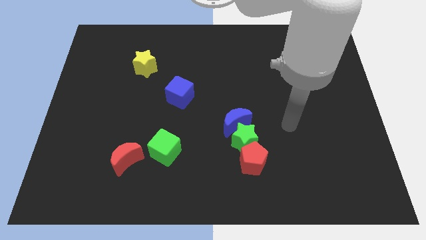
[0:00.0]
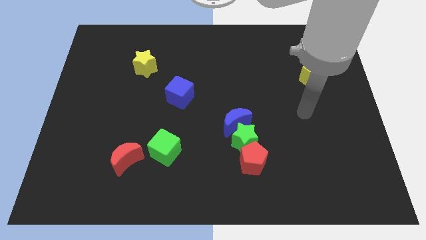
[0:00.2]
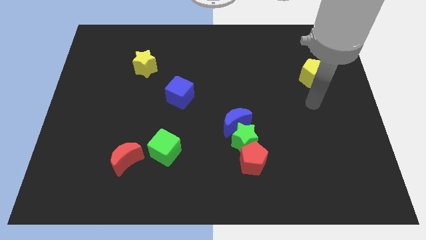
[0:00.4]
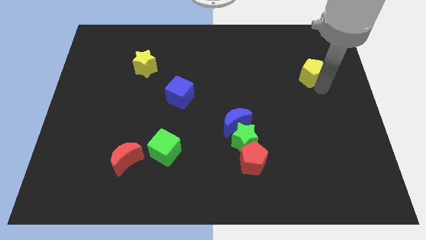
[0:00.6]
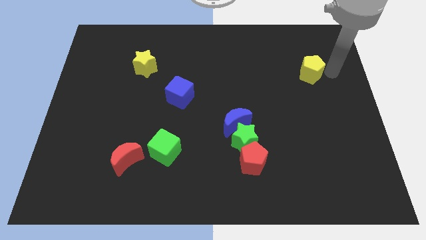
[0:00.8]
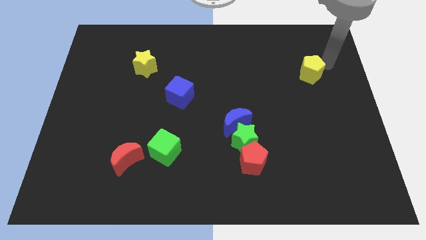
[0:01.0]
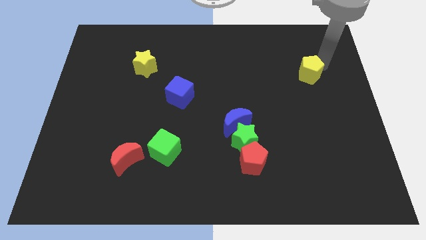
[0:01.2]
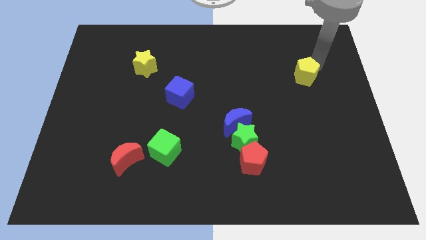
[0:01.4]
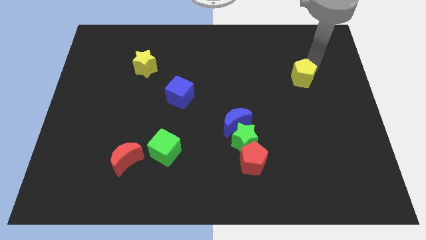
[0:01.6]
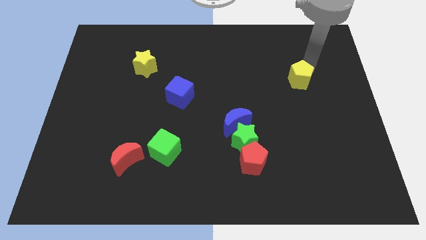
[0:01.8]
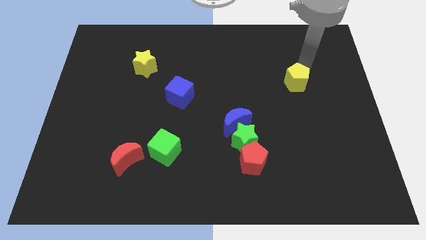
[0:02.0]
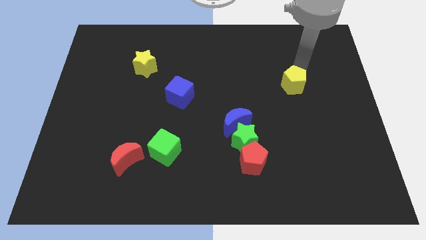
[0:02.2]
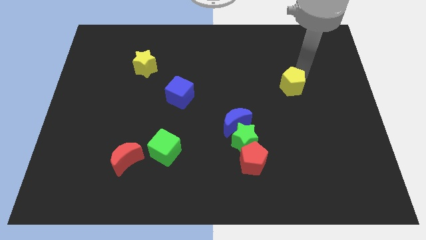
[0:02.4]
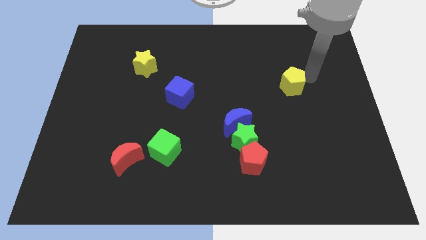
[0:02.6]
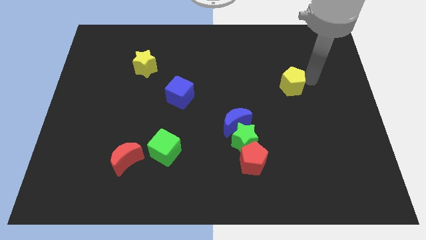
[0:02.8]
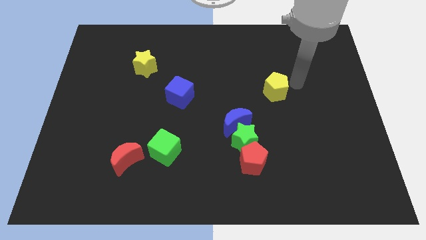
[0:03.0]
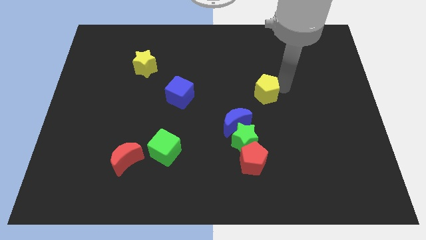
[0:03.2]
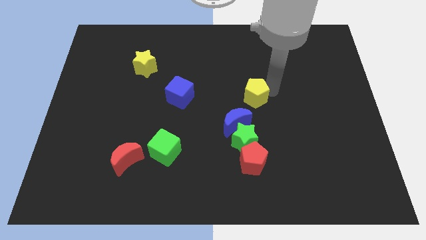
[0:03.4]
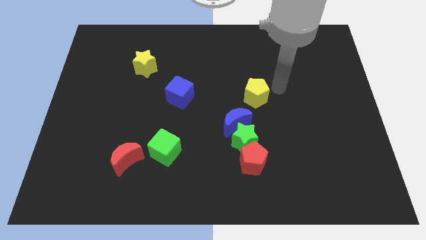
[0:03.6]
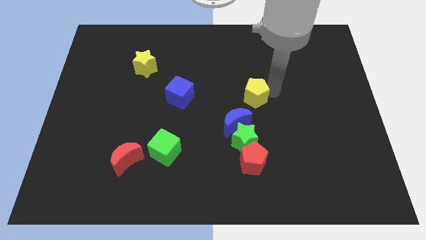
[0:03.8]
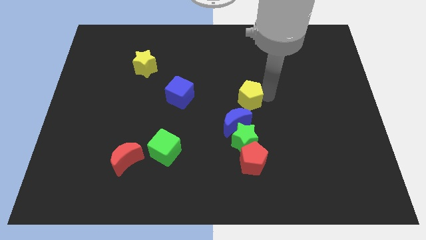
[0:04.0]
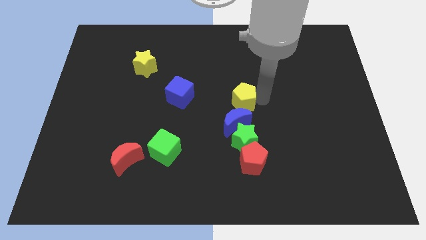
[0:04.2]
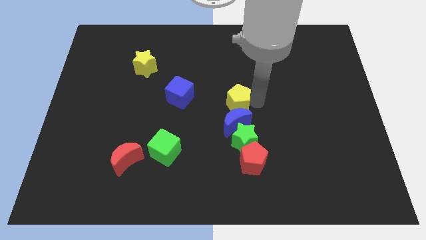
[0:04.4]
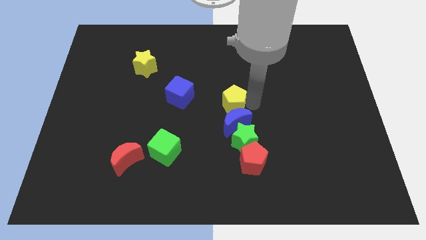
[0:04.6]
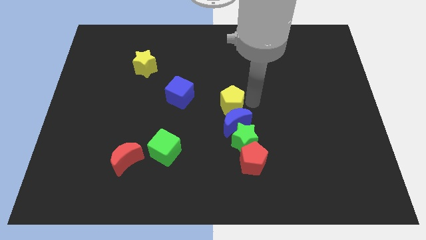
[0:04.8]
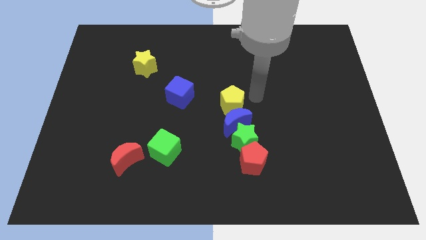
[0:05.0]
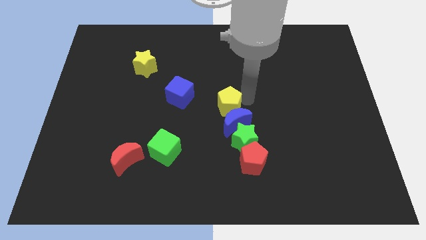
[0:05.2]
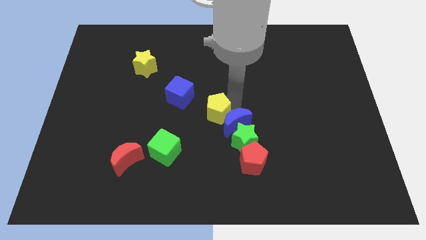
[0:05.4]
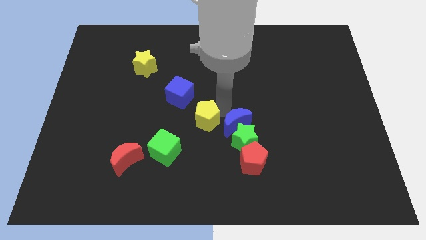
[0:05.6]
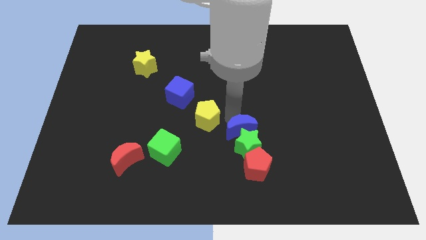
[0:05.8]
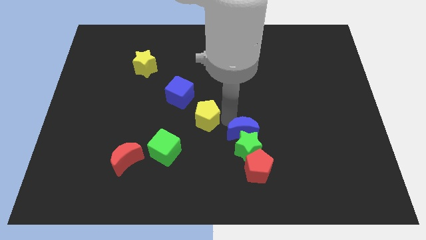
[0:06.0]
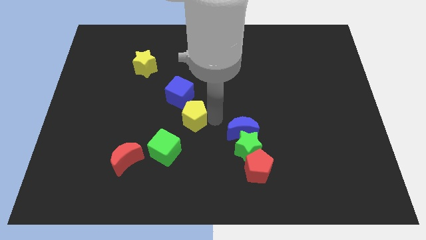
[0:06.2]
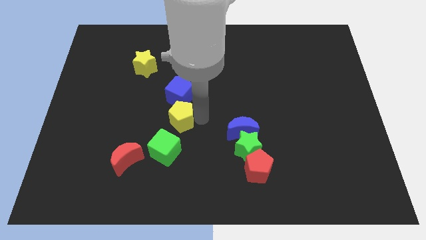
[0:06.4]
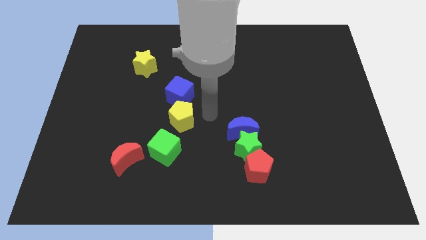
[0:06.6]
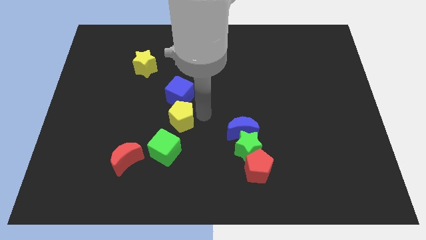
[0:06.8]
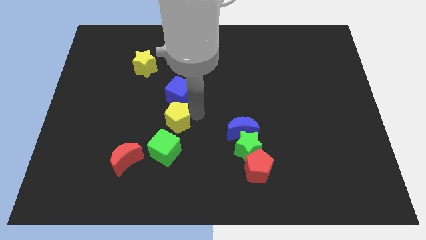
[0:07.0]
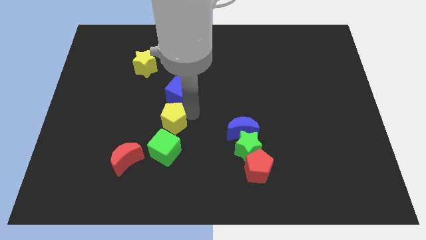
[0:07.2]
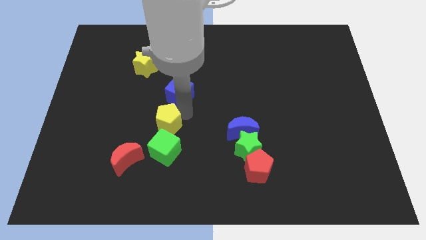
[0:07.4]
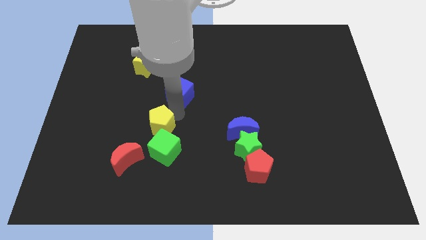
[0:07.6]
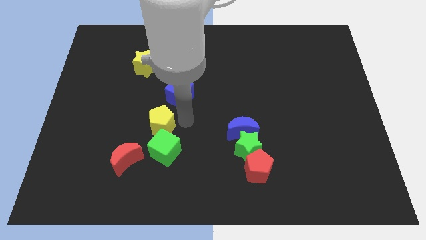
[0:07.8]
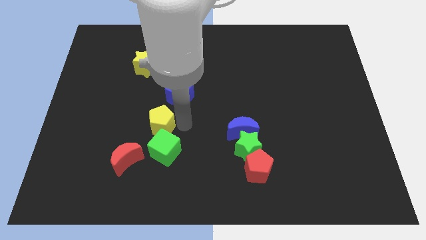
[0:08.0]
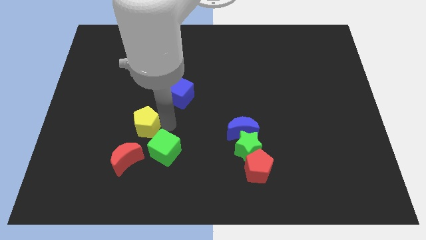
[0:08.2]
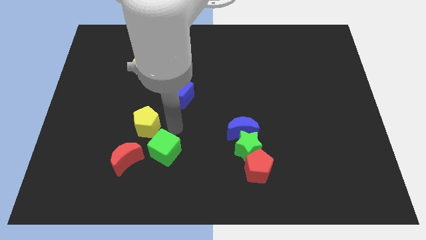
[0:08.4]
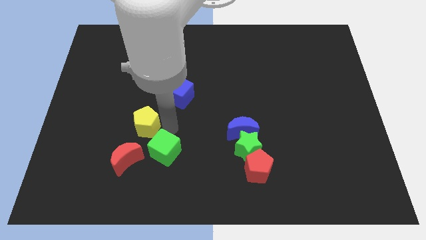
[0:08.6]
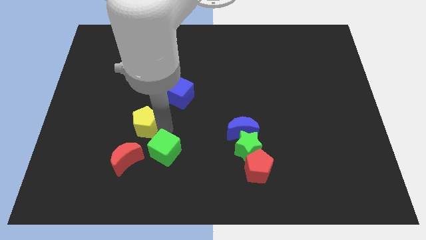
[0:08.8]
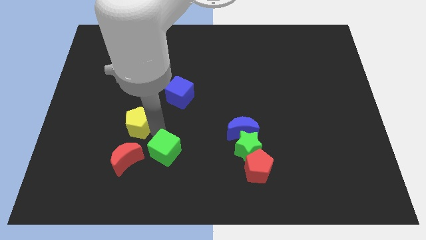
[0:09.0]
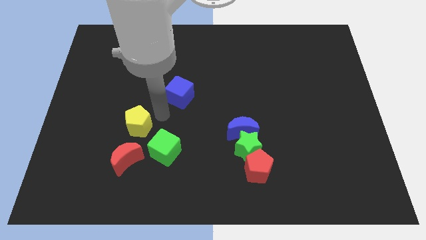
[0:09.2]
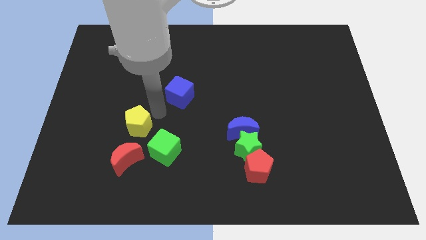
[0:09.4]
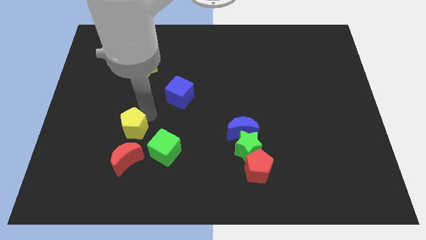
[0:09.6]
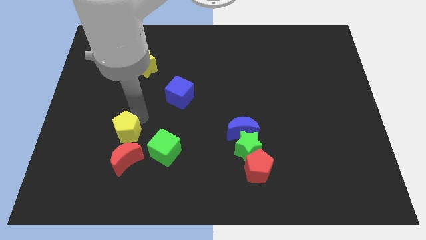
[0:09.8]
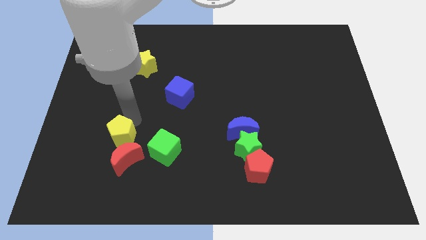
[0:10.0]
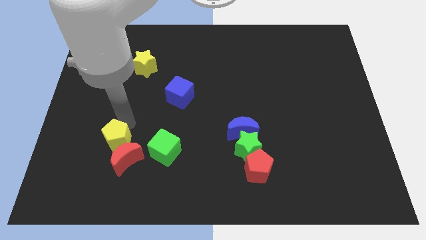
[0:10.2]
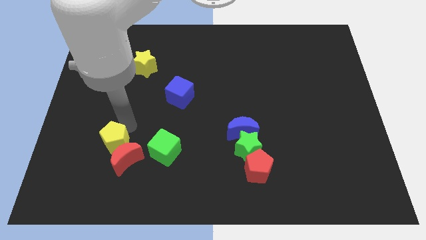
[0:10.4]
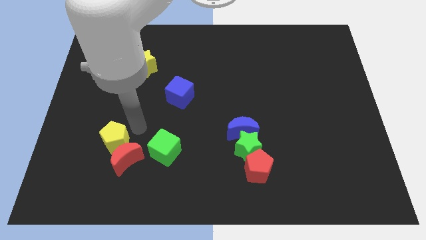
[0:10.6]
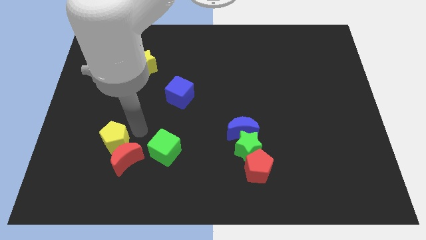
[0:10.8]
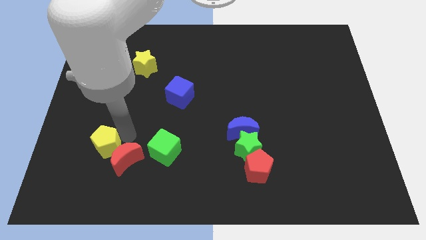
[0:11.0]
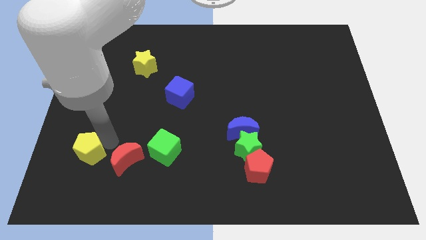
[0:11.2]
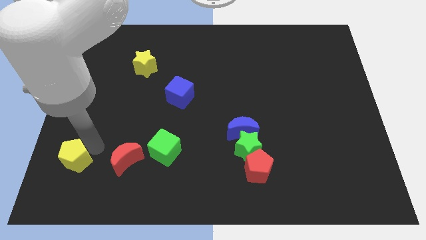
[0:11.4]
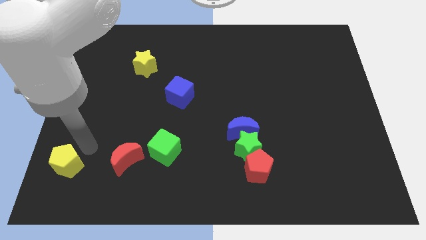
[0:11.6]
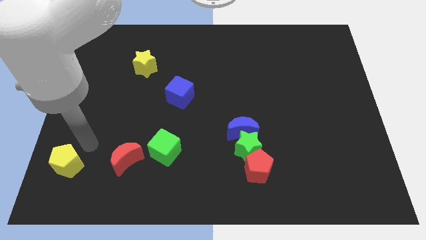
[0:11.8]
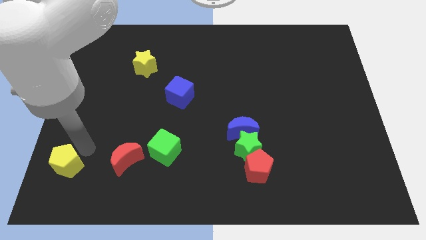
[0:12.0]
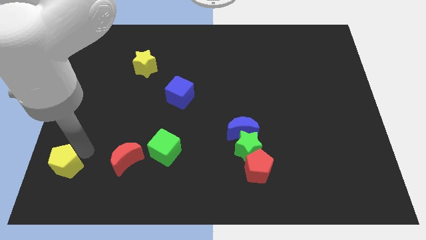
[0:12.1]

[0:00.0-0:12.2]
slide the yellow pentagon to the bottom left corner

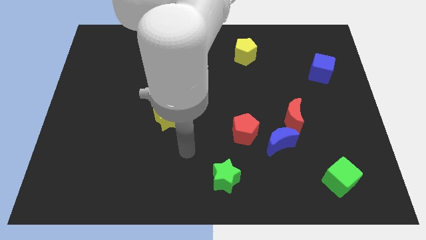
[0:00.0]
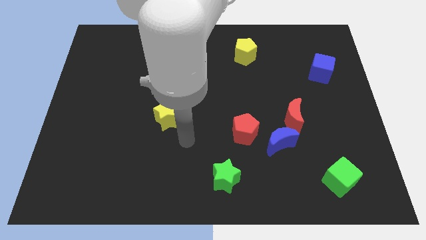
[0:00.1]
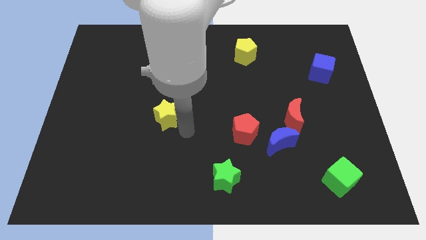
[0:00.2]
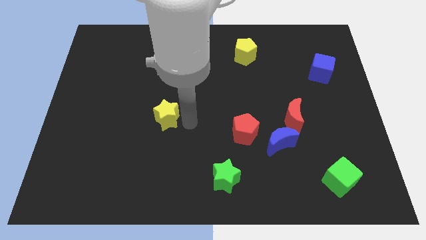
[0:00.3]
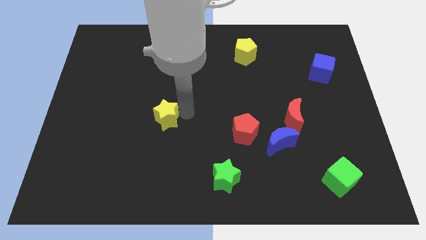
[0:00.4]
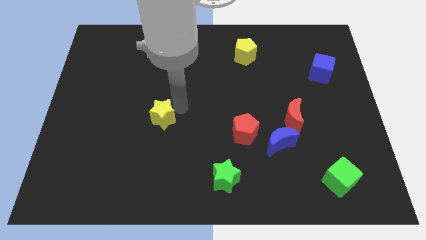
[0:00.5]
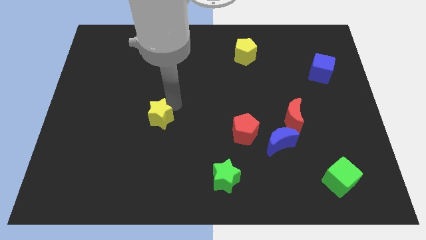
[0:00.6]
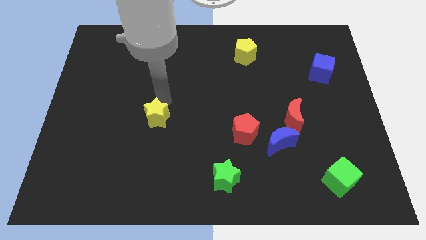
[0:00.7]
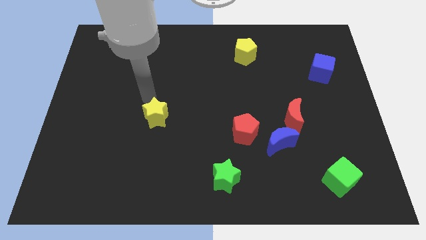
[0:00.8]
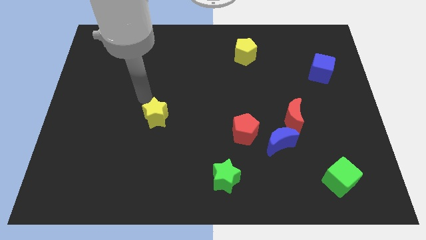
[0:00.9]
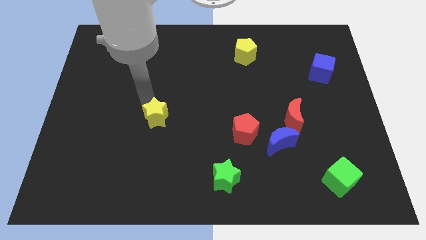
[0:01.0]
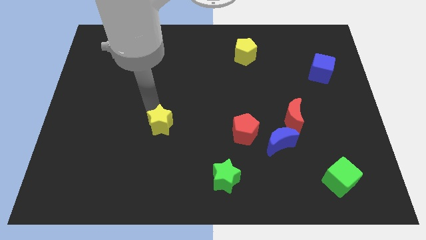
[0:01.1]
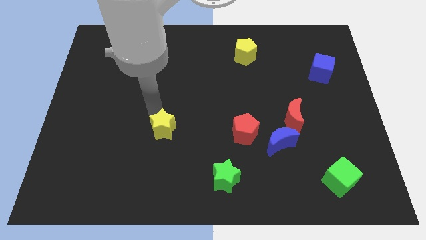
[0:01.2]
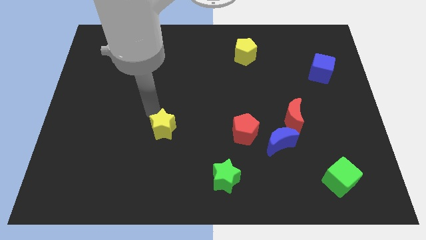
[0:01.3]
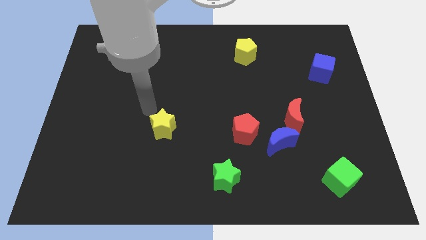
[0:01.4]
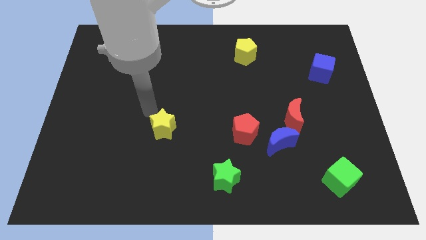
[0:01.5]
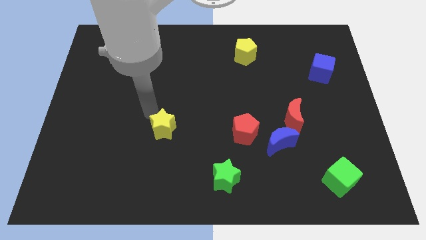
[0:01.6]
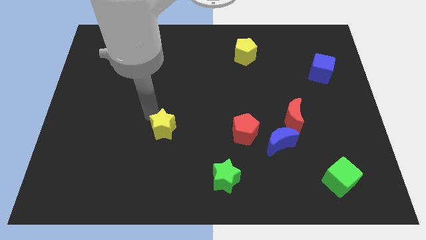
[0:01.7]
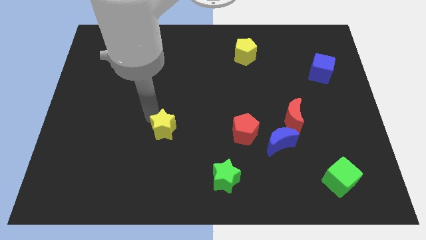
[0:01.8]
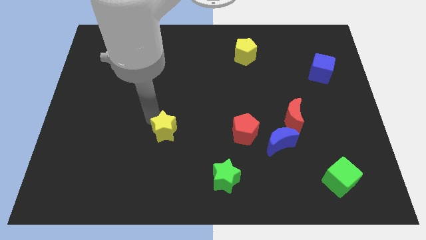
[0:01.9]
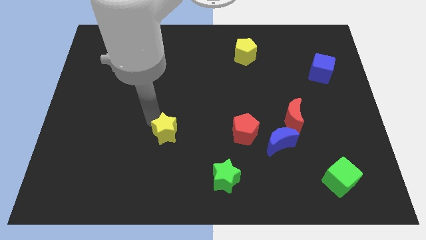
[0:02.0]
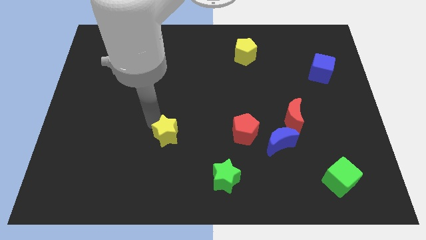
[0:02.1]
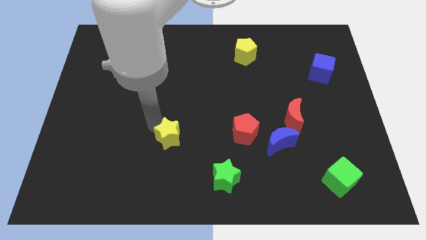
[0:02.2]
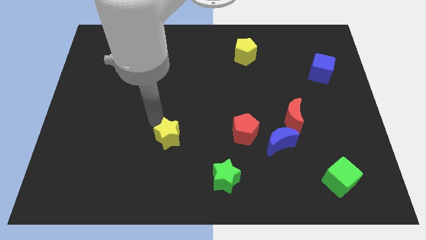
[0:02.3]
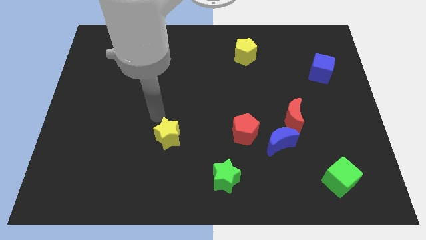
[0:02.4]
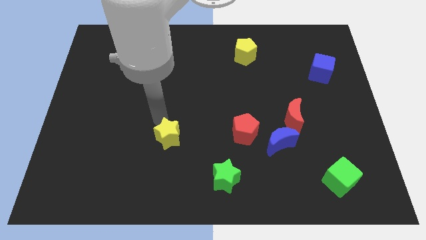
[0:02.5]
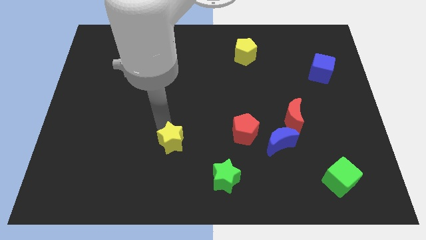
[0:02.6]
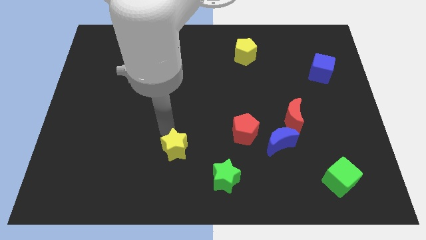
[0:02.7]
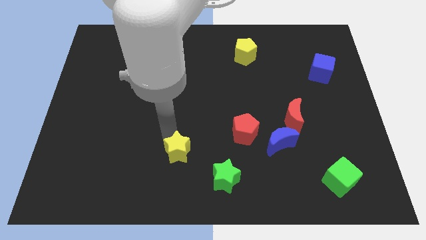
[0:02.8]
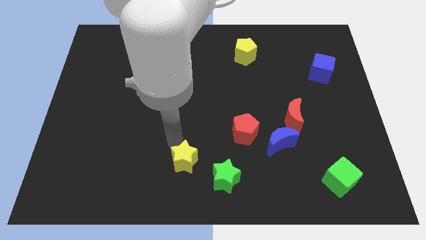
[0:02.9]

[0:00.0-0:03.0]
move the yellow star to the bottom
